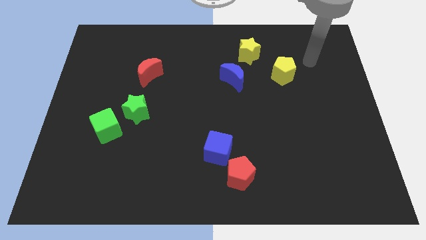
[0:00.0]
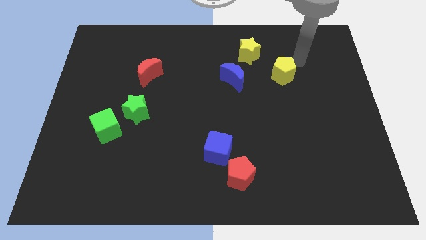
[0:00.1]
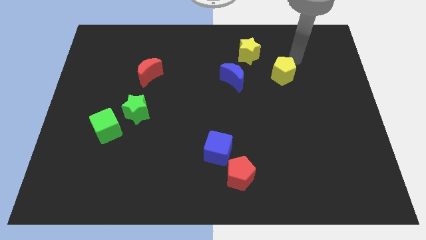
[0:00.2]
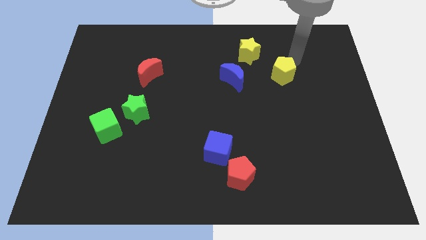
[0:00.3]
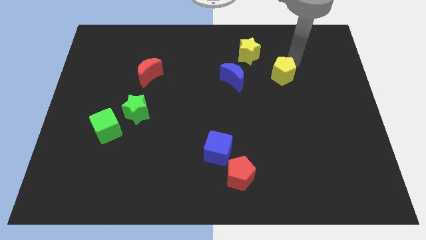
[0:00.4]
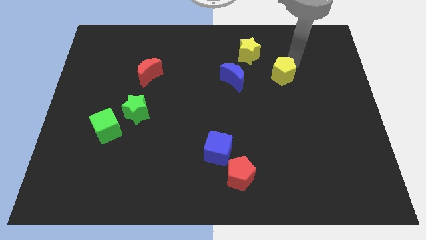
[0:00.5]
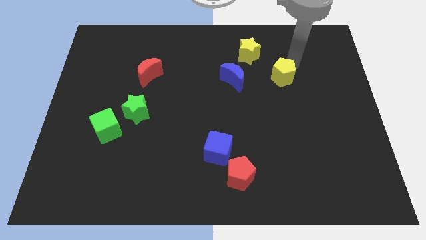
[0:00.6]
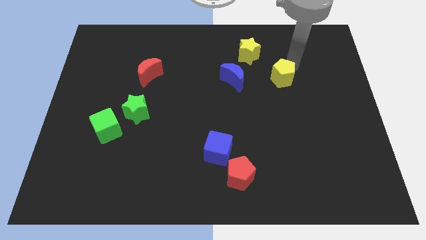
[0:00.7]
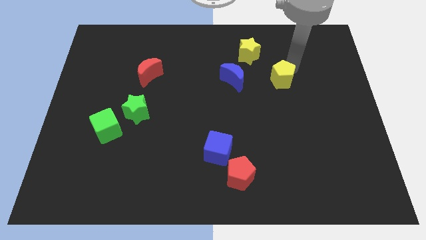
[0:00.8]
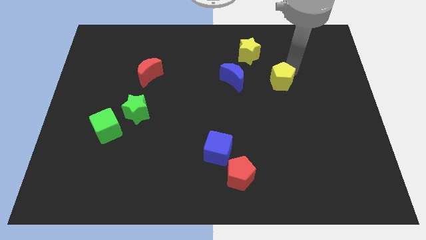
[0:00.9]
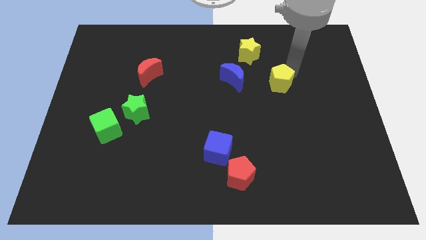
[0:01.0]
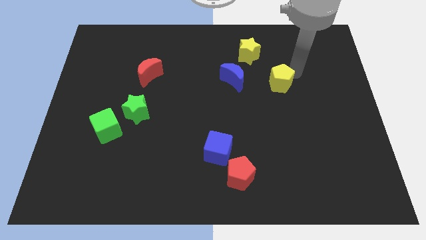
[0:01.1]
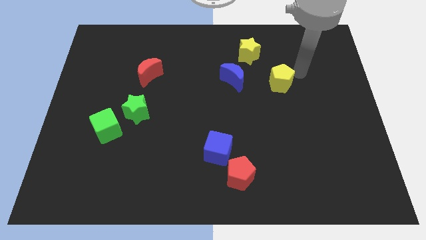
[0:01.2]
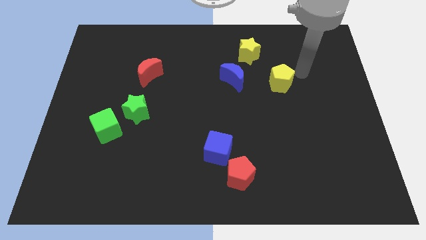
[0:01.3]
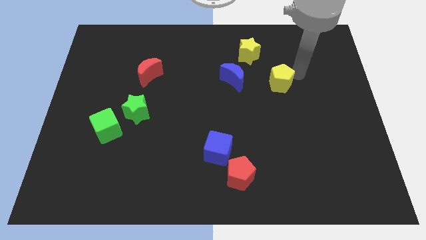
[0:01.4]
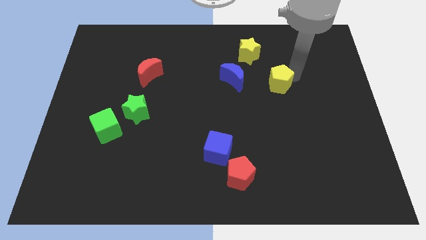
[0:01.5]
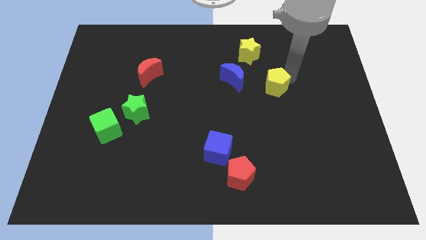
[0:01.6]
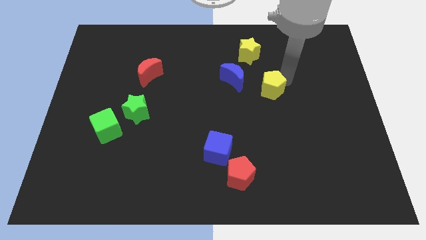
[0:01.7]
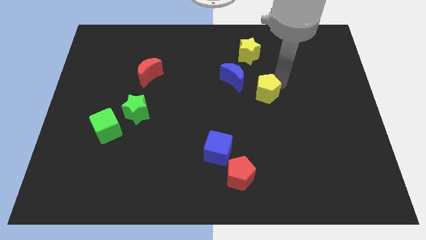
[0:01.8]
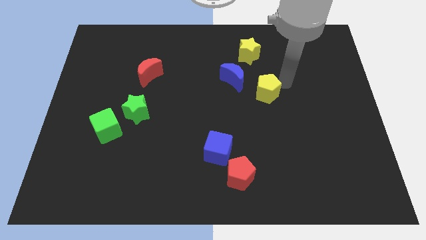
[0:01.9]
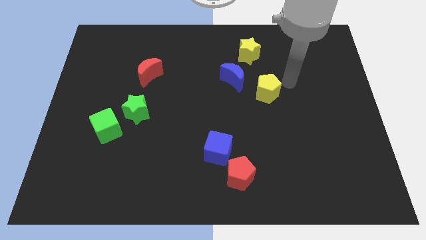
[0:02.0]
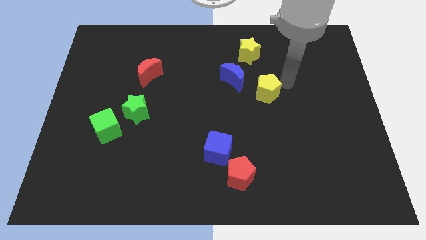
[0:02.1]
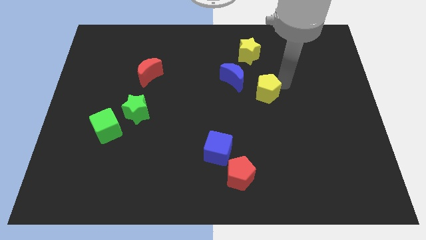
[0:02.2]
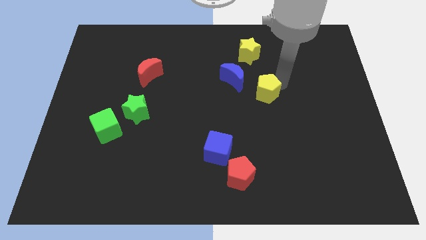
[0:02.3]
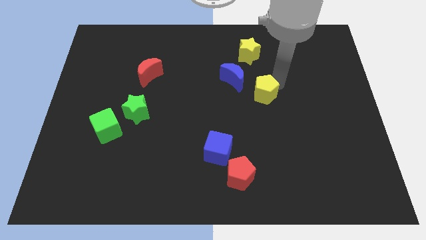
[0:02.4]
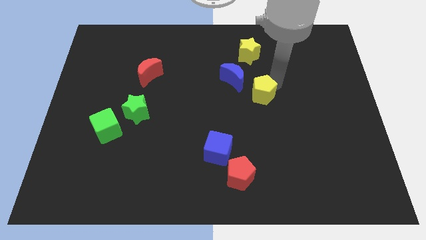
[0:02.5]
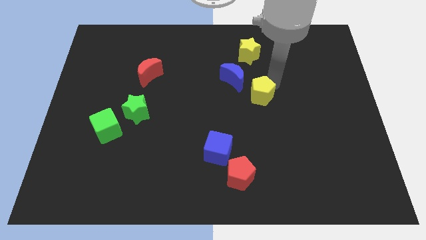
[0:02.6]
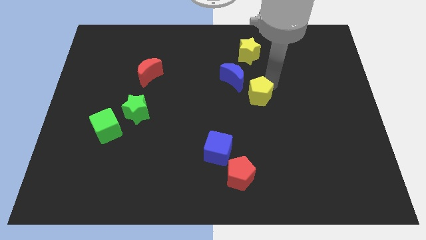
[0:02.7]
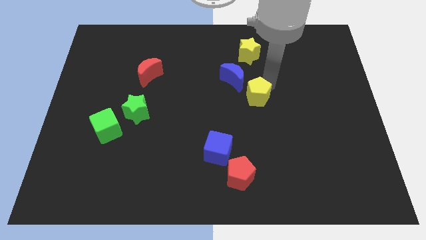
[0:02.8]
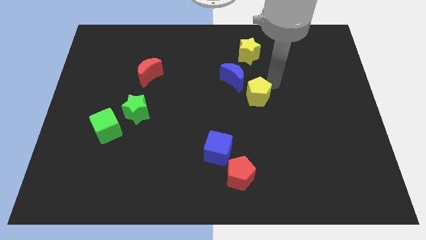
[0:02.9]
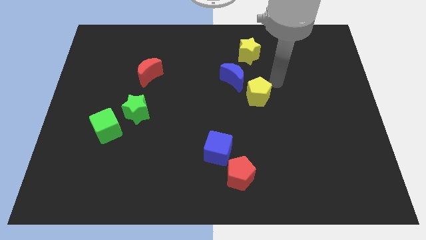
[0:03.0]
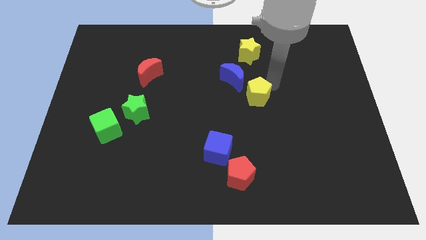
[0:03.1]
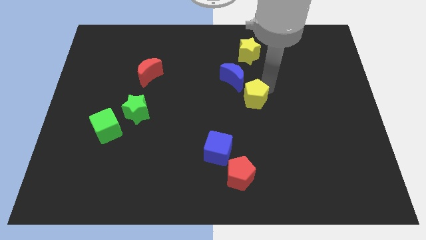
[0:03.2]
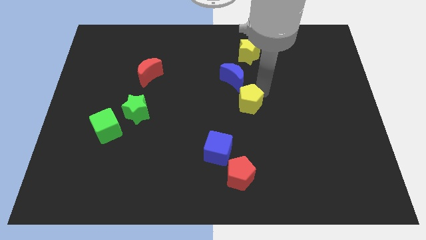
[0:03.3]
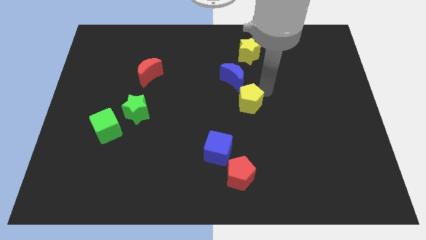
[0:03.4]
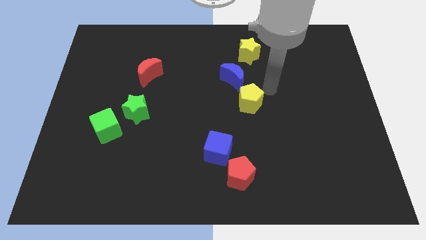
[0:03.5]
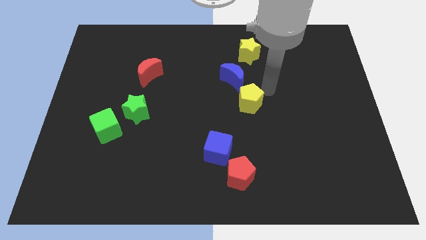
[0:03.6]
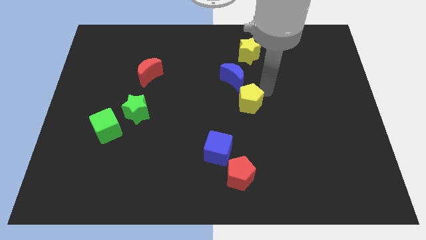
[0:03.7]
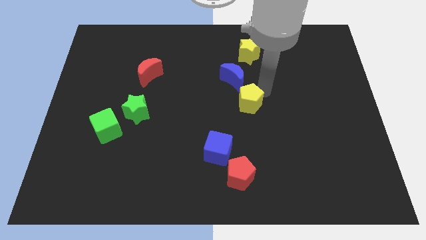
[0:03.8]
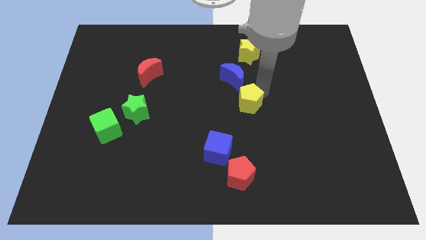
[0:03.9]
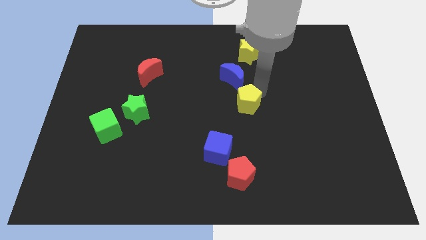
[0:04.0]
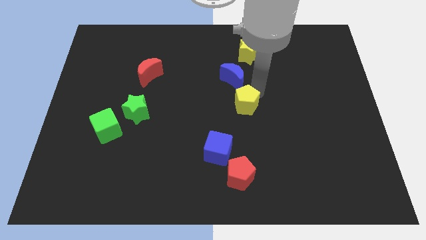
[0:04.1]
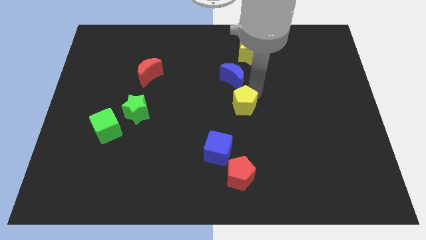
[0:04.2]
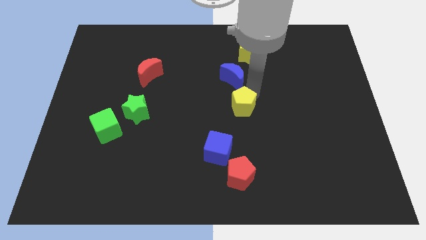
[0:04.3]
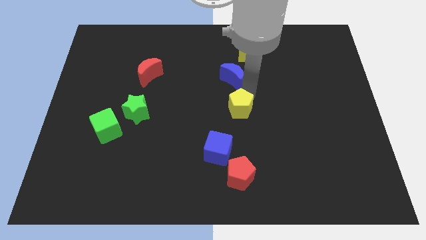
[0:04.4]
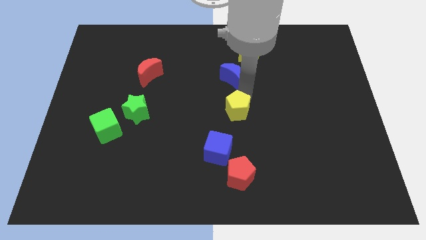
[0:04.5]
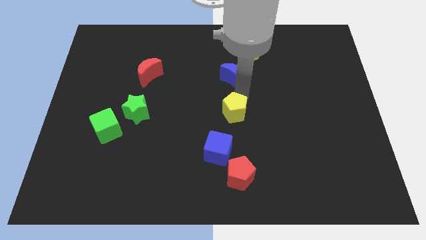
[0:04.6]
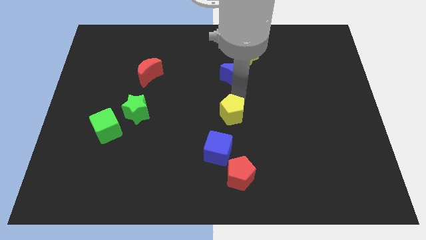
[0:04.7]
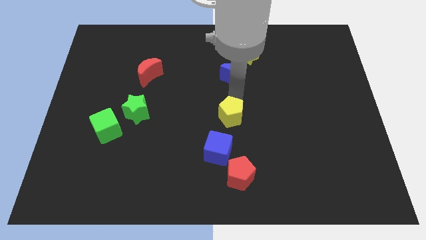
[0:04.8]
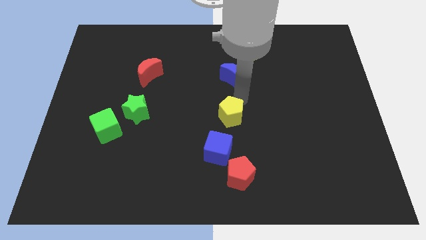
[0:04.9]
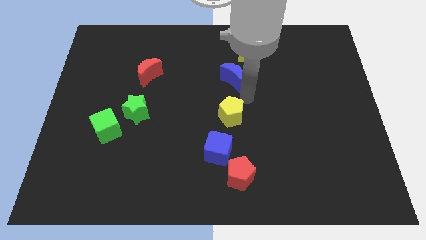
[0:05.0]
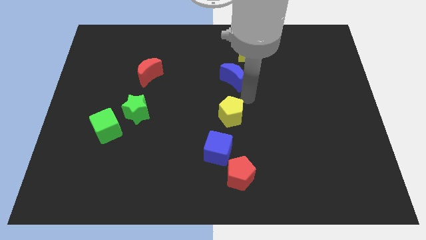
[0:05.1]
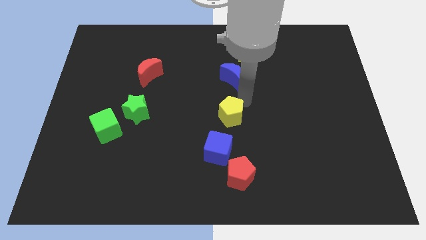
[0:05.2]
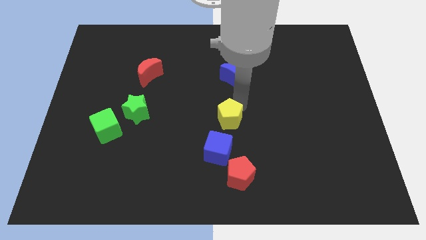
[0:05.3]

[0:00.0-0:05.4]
push the yellow pentagon diagonally downwards and left
